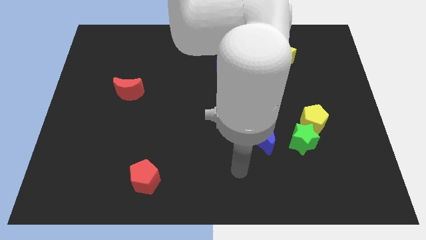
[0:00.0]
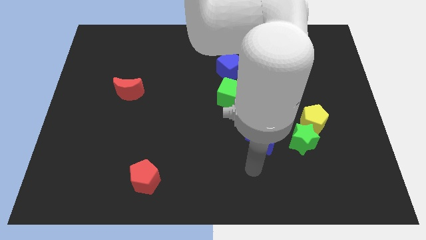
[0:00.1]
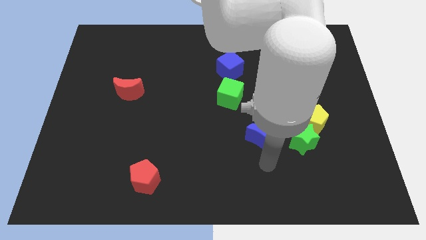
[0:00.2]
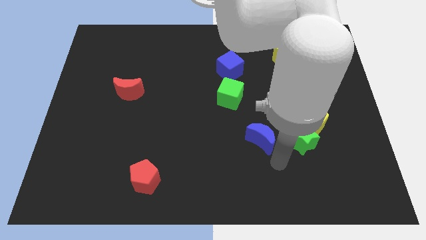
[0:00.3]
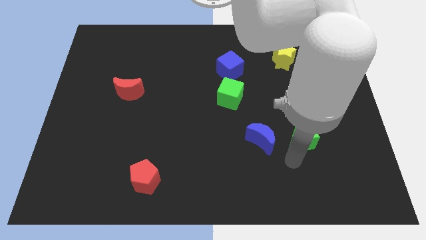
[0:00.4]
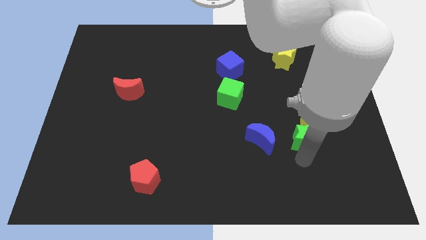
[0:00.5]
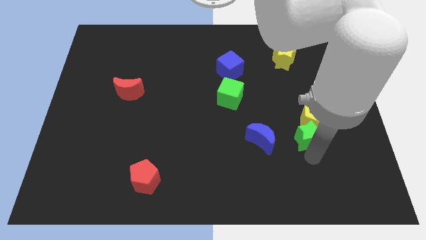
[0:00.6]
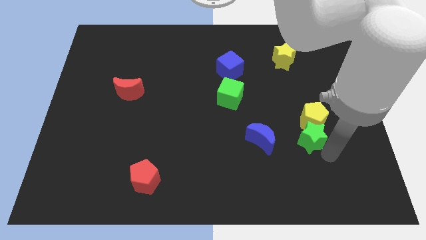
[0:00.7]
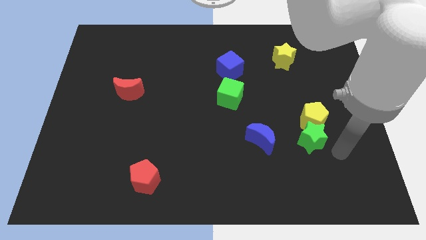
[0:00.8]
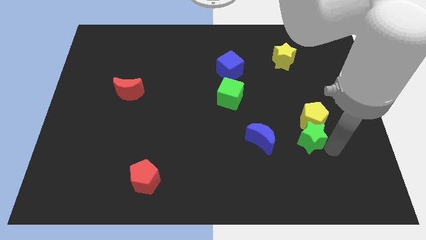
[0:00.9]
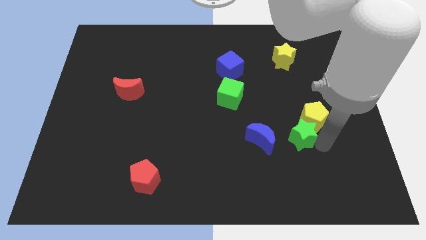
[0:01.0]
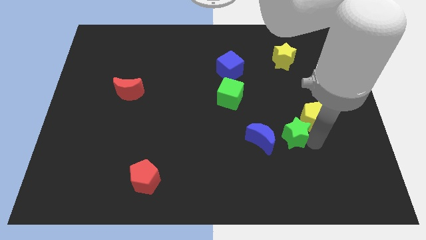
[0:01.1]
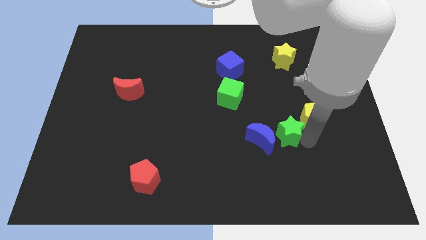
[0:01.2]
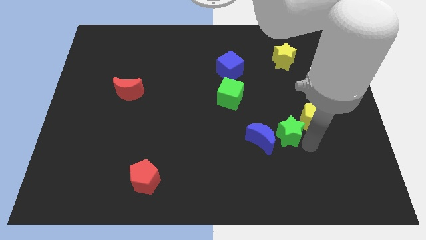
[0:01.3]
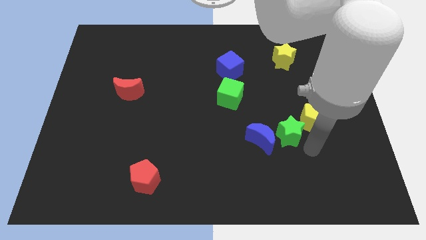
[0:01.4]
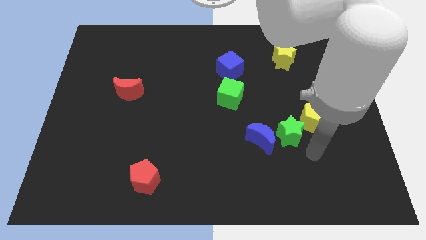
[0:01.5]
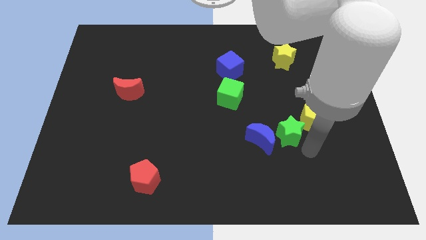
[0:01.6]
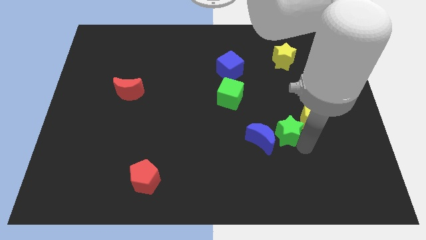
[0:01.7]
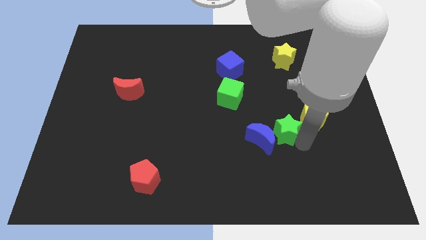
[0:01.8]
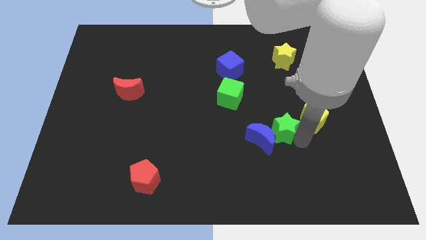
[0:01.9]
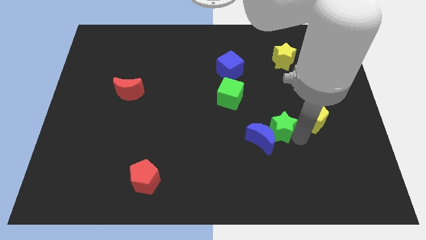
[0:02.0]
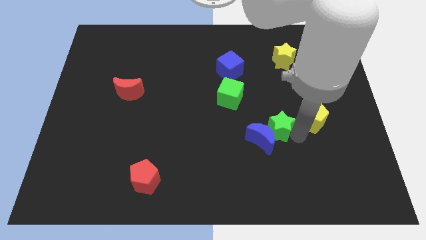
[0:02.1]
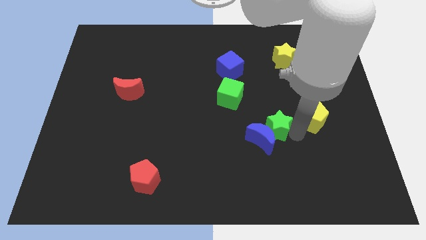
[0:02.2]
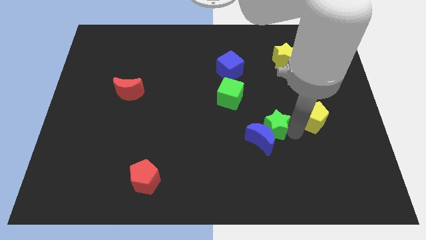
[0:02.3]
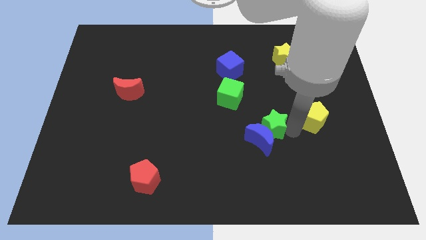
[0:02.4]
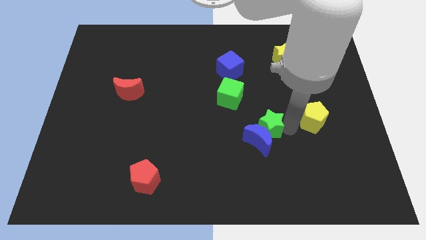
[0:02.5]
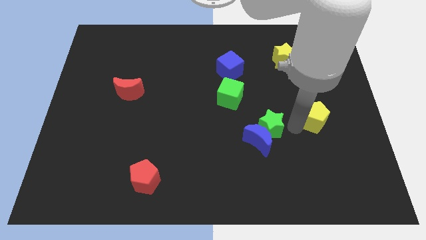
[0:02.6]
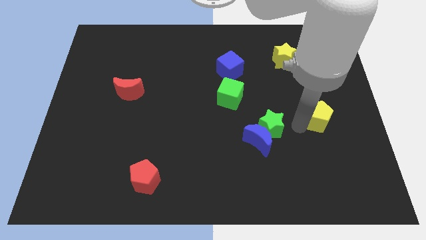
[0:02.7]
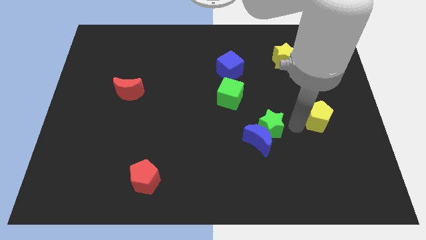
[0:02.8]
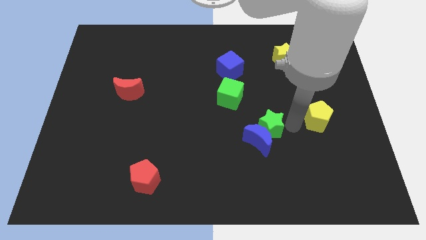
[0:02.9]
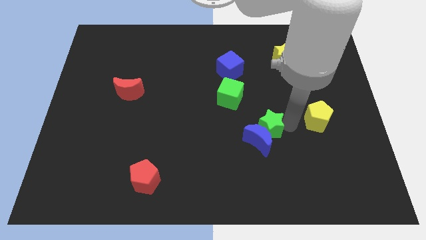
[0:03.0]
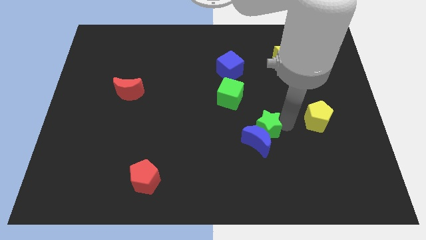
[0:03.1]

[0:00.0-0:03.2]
move the green star a little bit left

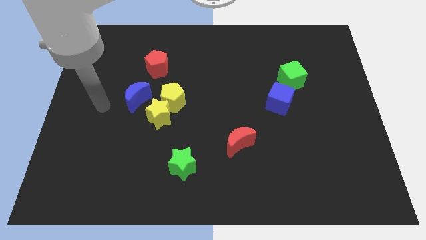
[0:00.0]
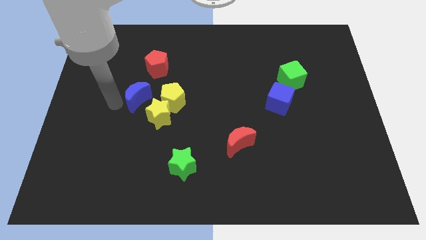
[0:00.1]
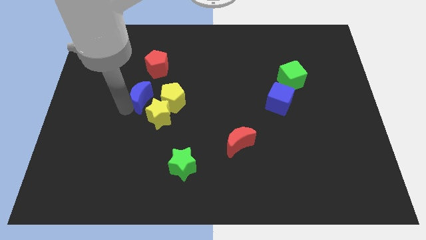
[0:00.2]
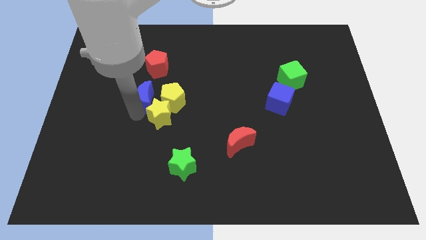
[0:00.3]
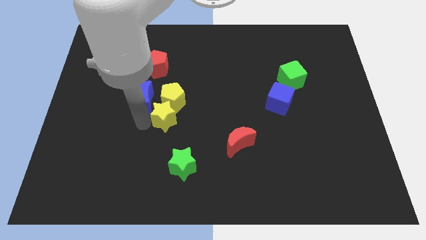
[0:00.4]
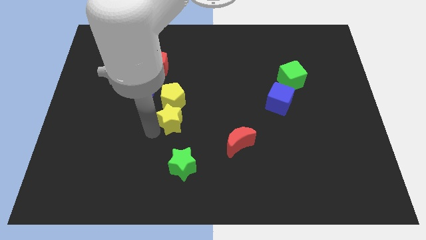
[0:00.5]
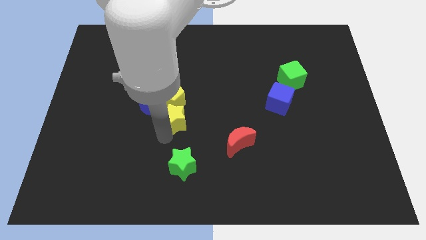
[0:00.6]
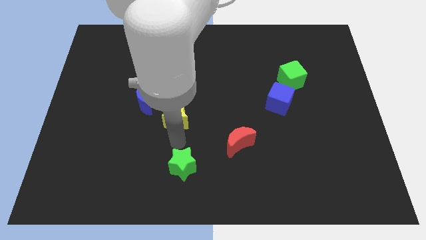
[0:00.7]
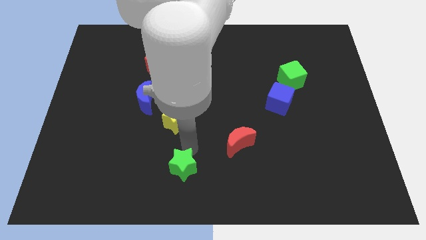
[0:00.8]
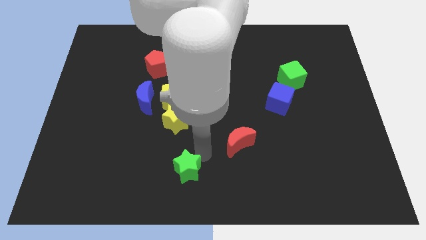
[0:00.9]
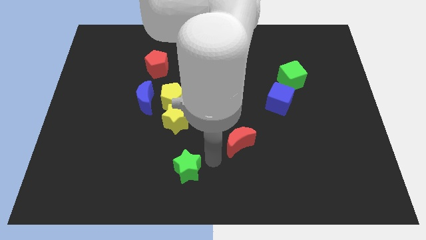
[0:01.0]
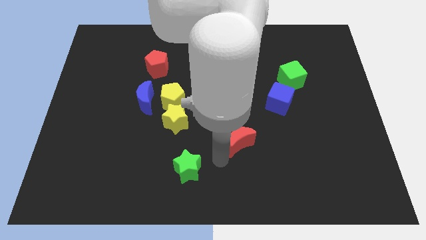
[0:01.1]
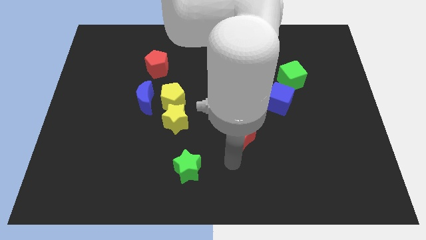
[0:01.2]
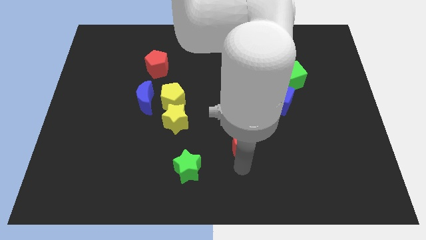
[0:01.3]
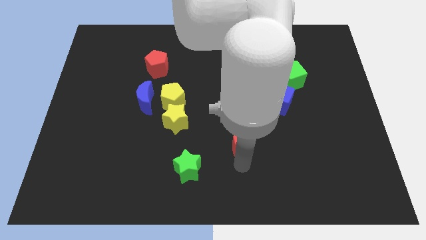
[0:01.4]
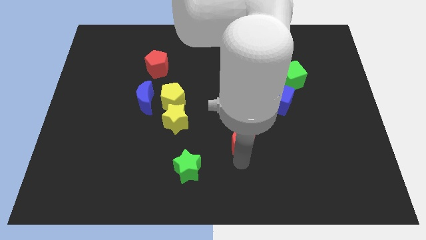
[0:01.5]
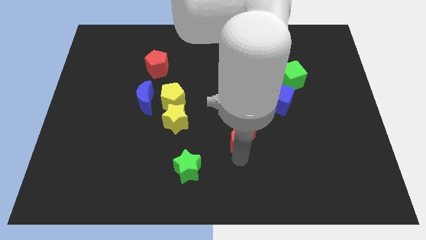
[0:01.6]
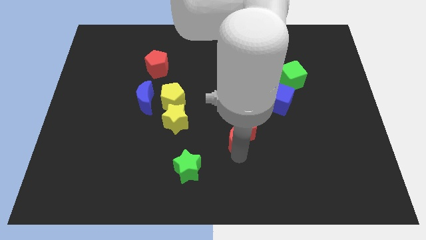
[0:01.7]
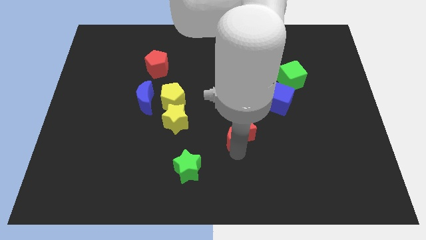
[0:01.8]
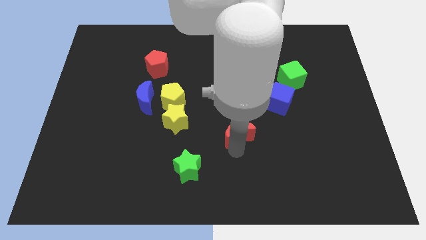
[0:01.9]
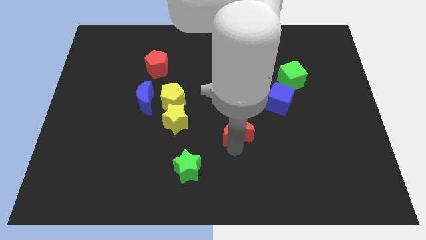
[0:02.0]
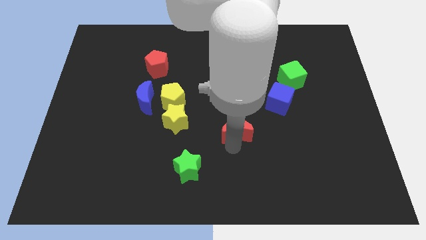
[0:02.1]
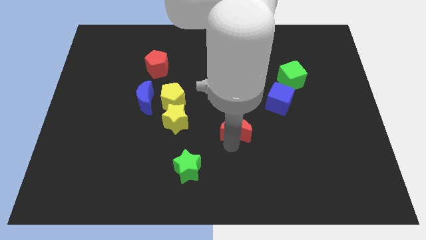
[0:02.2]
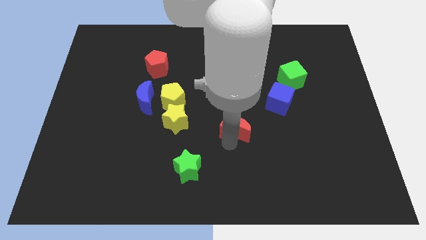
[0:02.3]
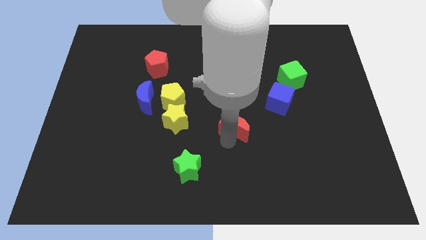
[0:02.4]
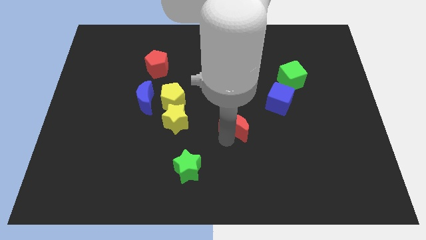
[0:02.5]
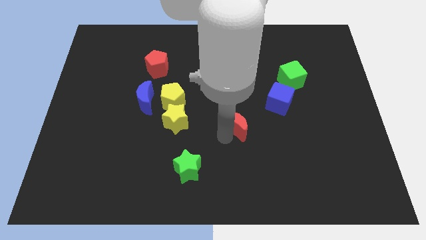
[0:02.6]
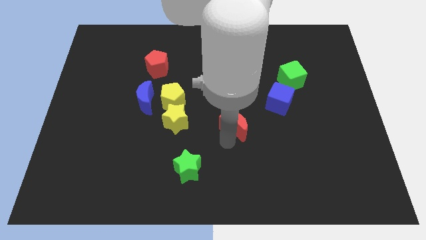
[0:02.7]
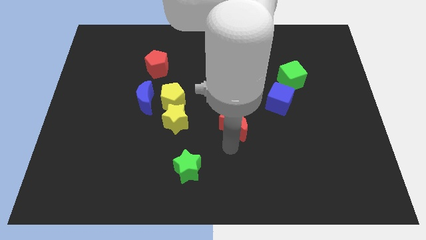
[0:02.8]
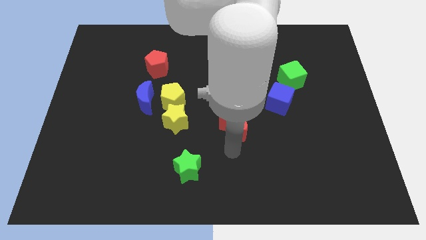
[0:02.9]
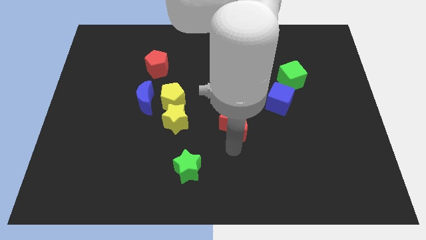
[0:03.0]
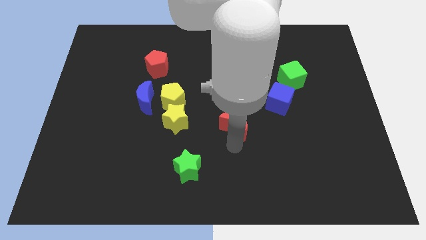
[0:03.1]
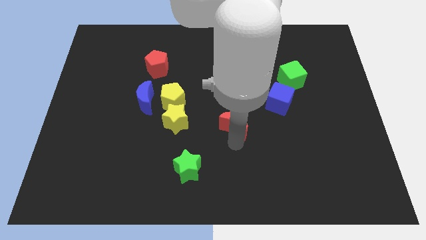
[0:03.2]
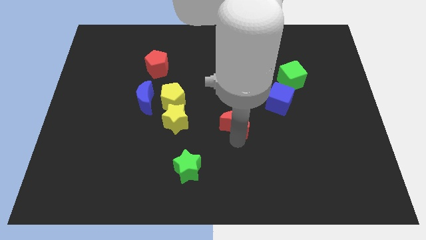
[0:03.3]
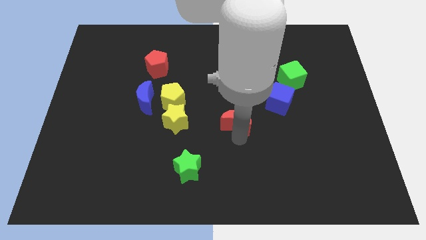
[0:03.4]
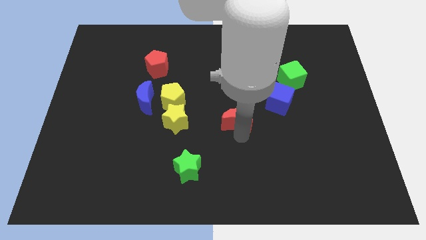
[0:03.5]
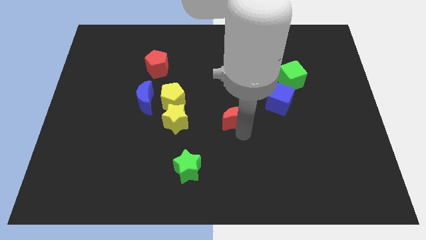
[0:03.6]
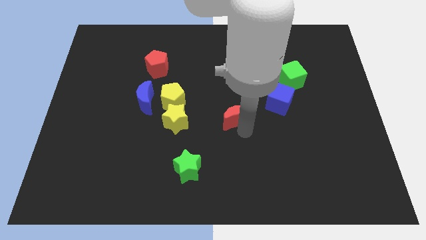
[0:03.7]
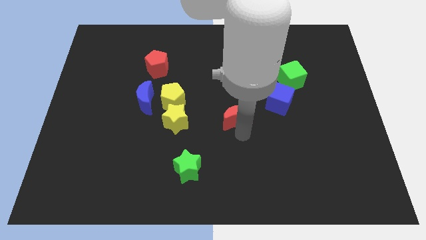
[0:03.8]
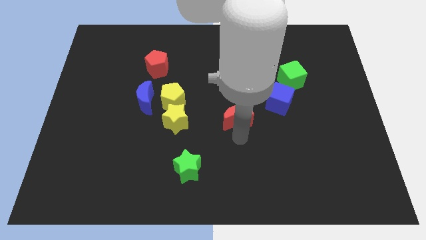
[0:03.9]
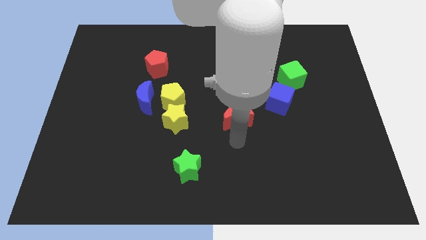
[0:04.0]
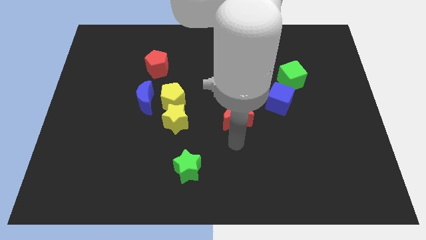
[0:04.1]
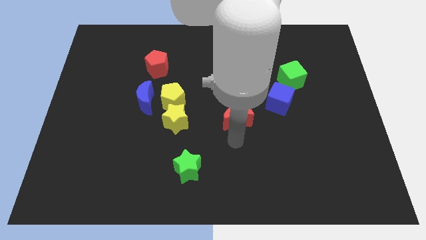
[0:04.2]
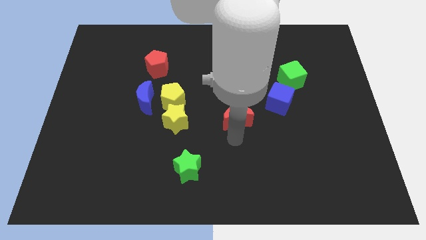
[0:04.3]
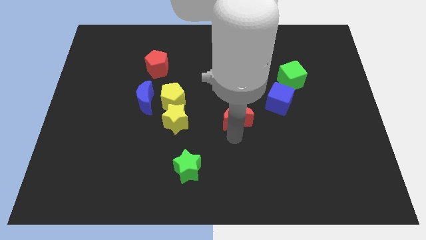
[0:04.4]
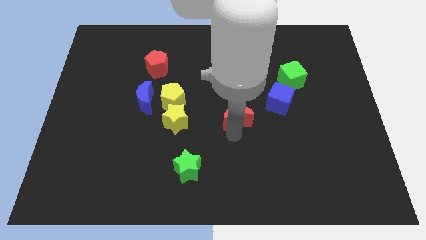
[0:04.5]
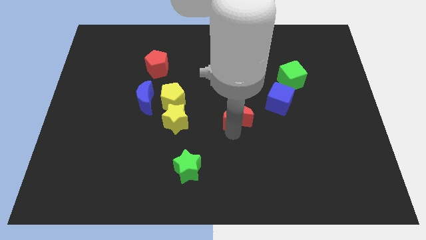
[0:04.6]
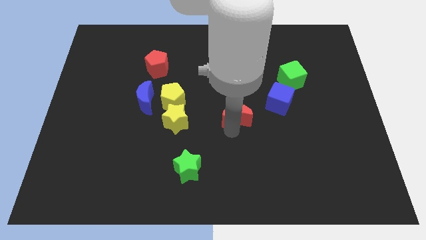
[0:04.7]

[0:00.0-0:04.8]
slide the red moon a bit up

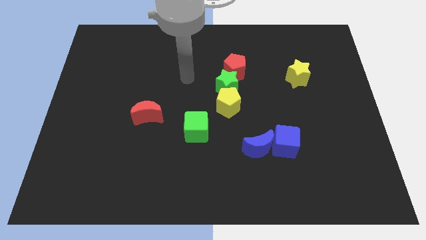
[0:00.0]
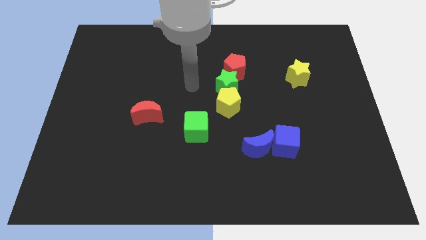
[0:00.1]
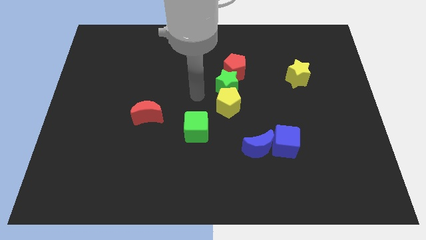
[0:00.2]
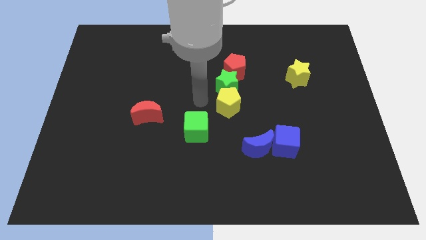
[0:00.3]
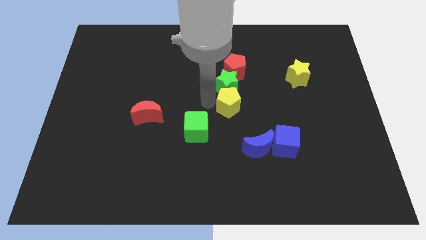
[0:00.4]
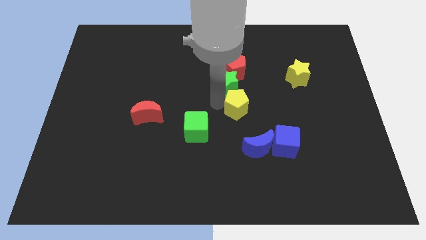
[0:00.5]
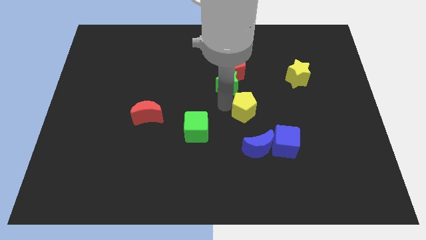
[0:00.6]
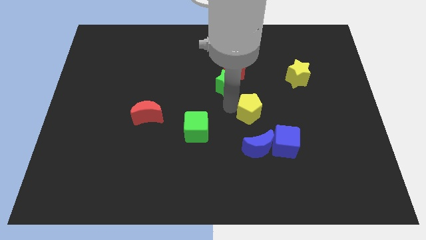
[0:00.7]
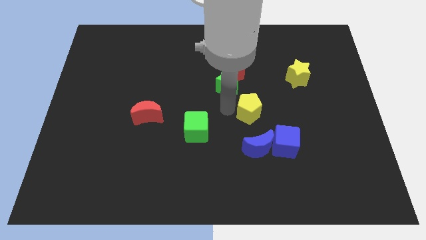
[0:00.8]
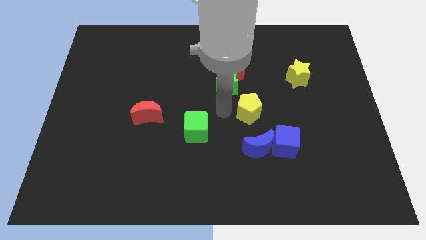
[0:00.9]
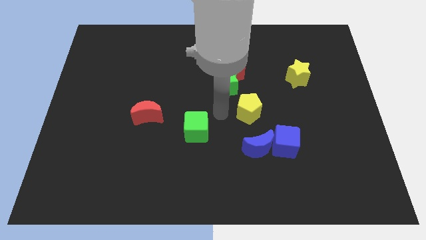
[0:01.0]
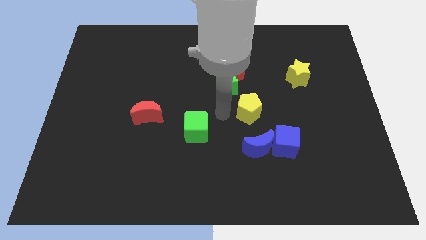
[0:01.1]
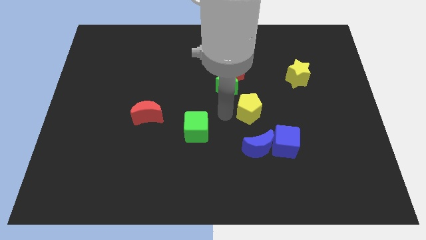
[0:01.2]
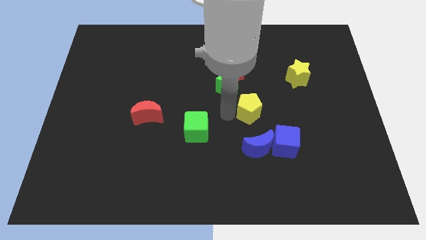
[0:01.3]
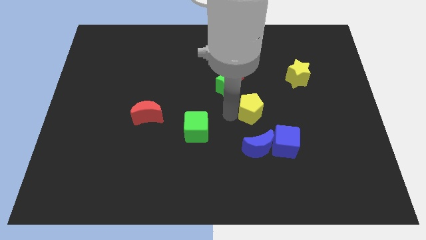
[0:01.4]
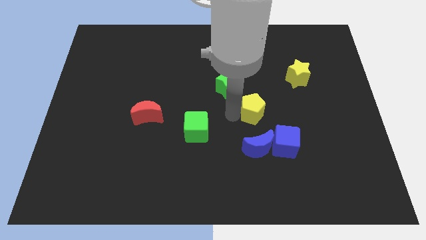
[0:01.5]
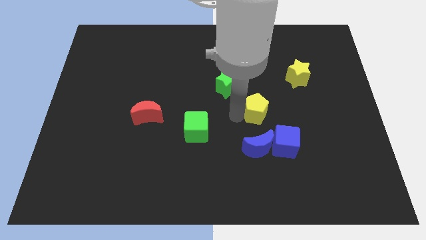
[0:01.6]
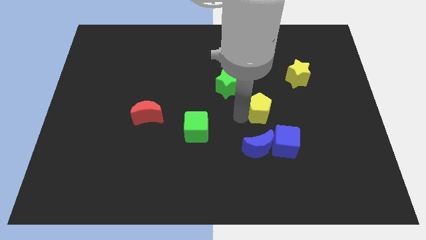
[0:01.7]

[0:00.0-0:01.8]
slightly move the yellow pentagon right
